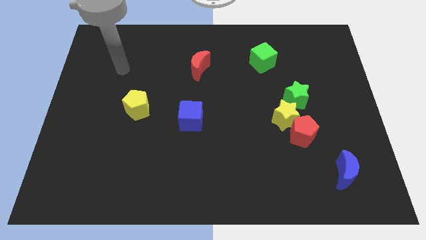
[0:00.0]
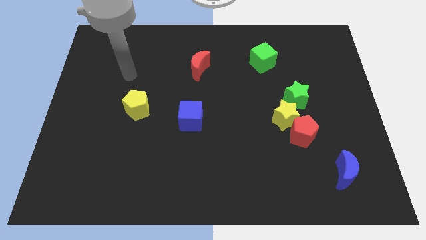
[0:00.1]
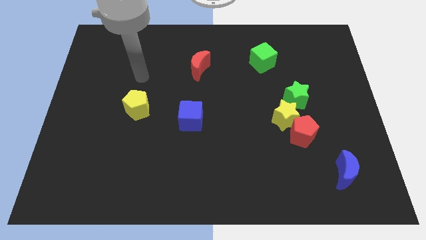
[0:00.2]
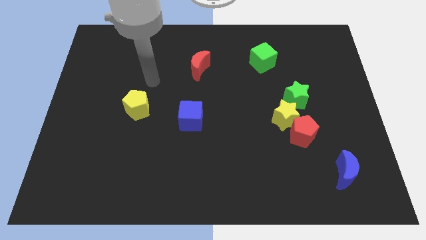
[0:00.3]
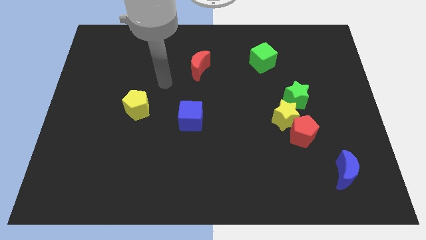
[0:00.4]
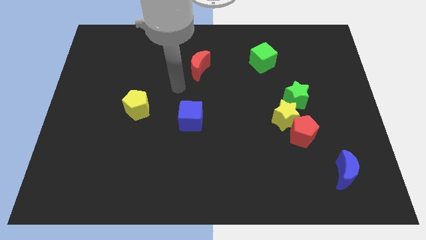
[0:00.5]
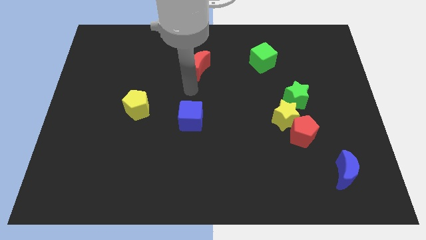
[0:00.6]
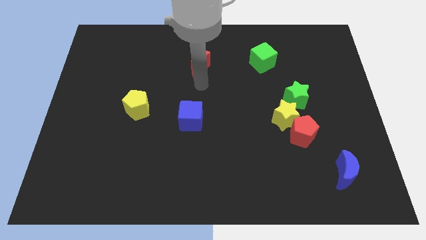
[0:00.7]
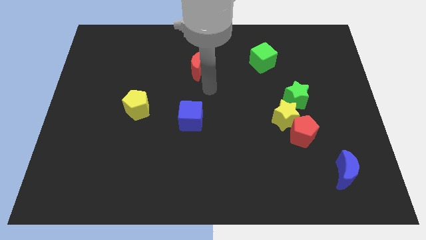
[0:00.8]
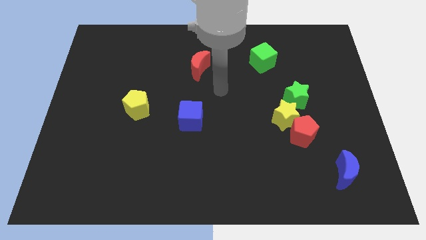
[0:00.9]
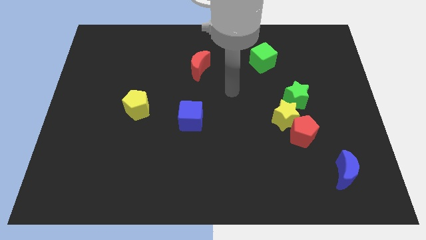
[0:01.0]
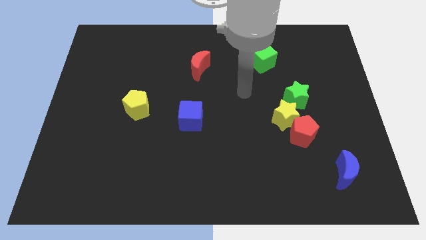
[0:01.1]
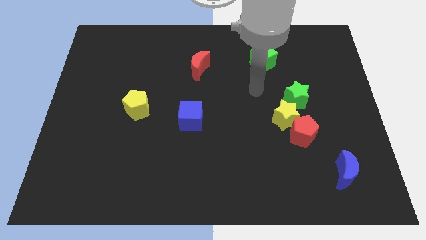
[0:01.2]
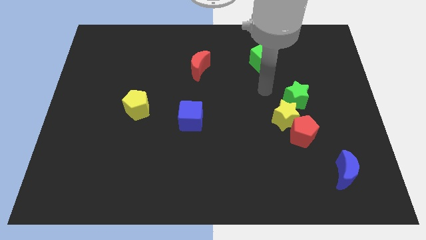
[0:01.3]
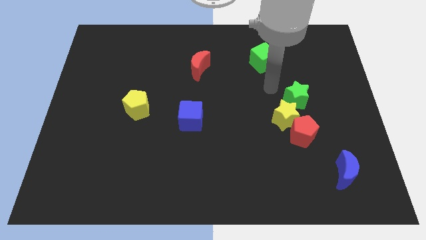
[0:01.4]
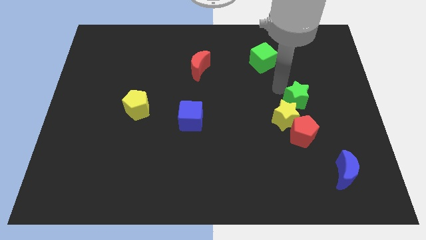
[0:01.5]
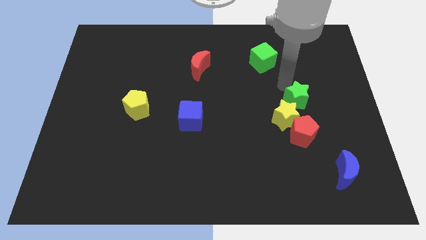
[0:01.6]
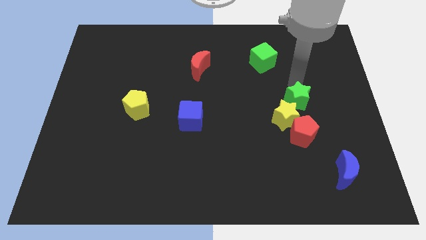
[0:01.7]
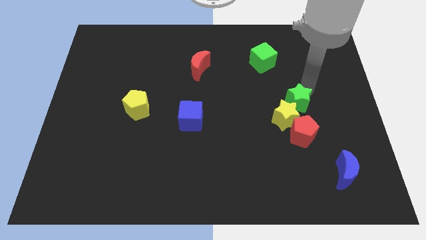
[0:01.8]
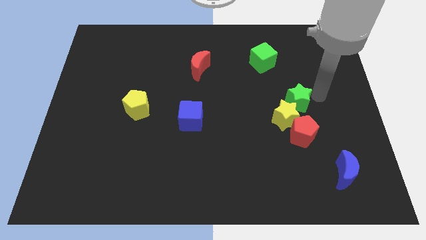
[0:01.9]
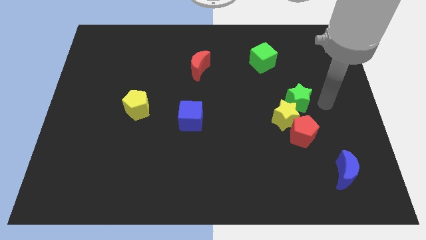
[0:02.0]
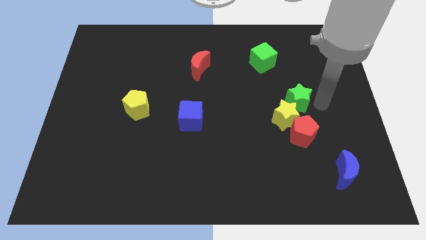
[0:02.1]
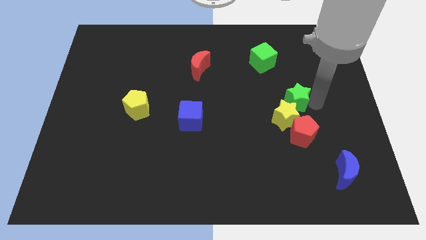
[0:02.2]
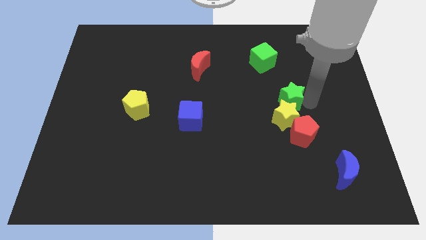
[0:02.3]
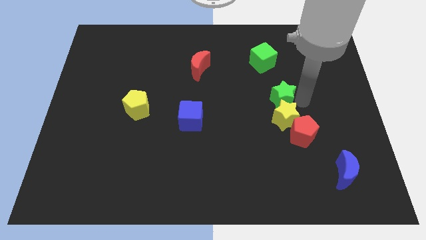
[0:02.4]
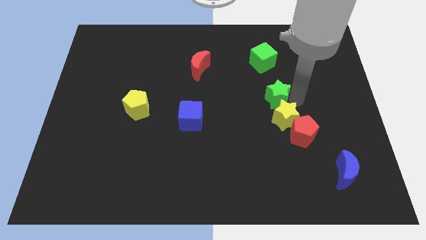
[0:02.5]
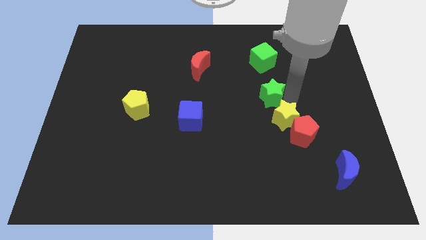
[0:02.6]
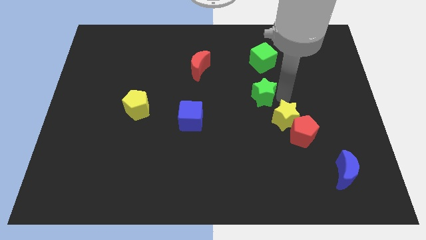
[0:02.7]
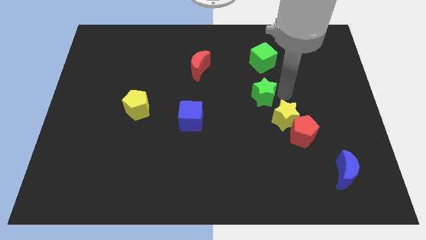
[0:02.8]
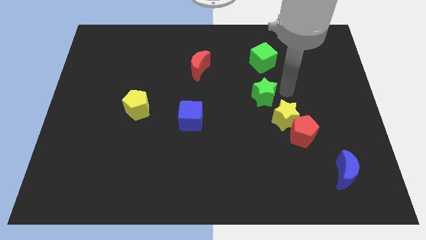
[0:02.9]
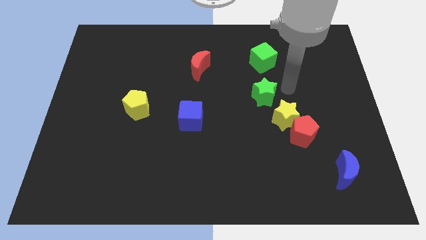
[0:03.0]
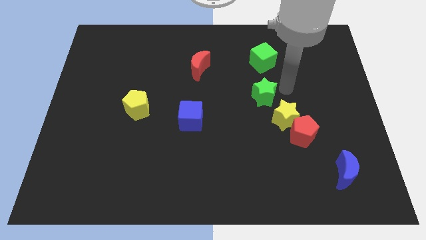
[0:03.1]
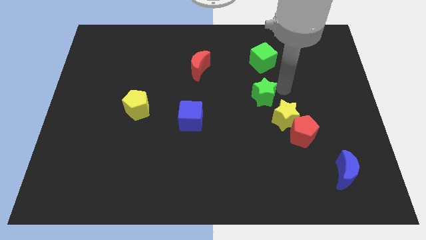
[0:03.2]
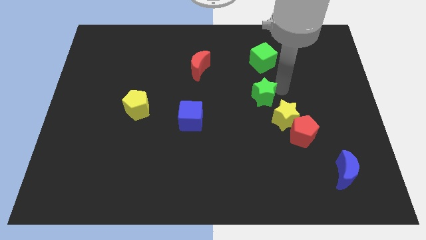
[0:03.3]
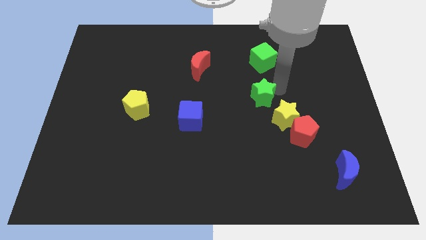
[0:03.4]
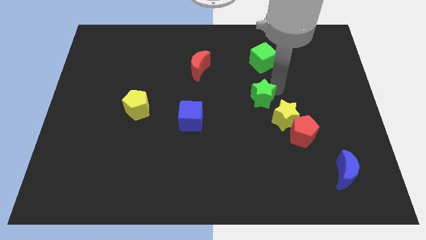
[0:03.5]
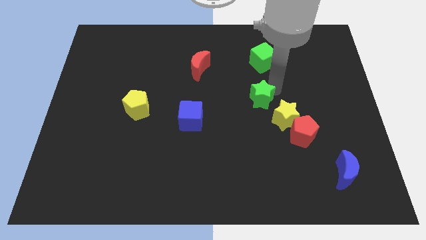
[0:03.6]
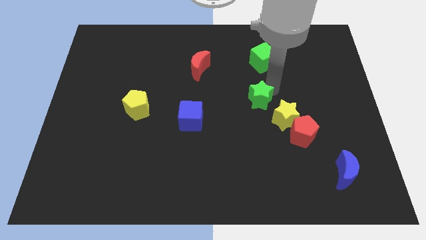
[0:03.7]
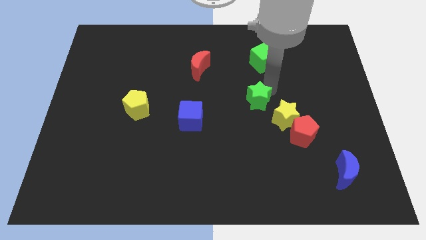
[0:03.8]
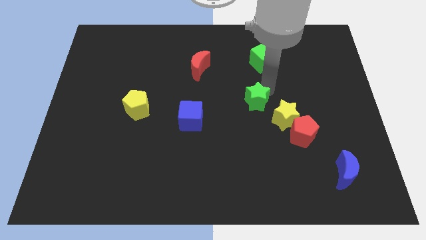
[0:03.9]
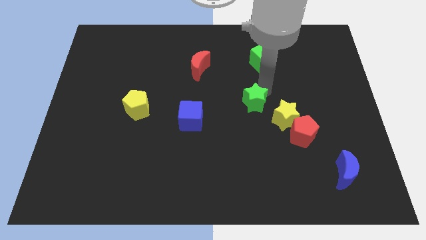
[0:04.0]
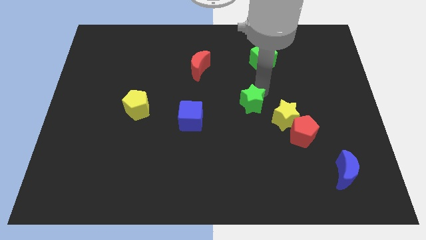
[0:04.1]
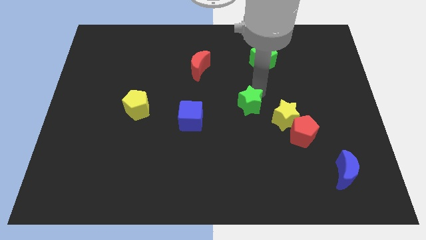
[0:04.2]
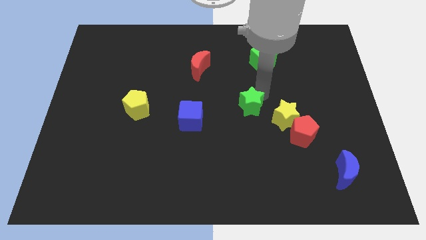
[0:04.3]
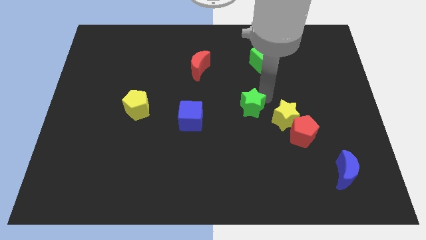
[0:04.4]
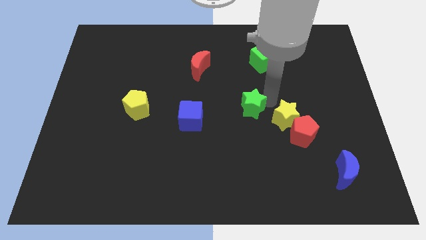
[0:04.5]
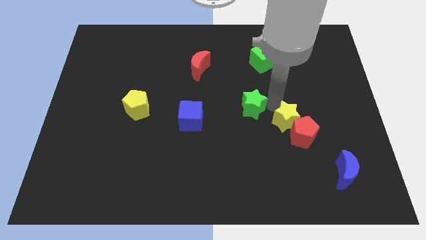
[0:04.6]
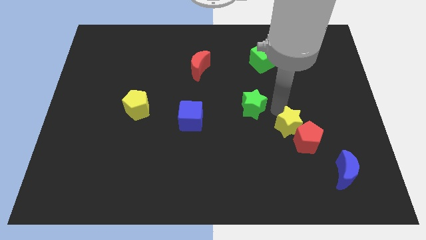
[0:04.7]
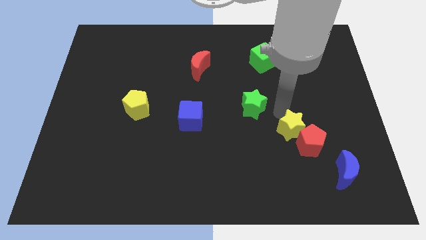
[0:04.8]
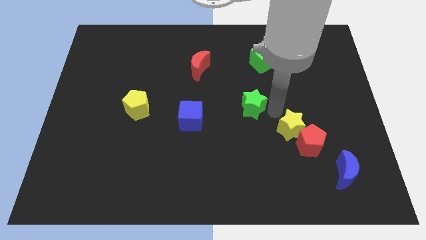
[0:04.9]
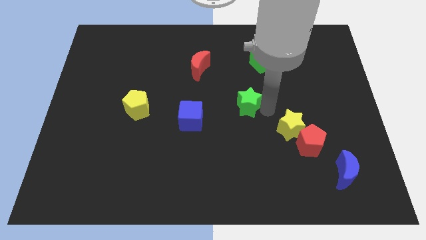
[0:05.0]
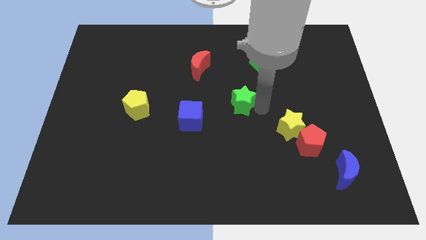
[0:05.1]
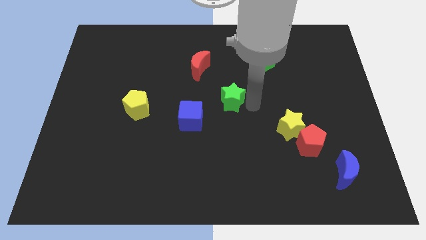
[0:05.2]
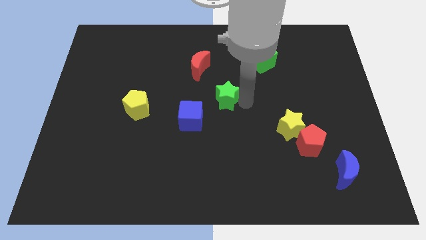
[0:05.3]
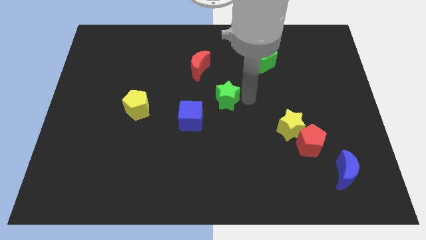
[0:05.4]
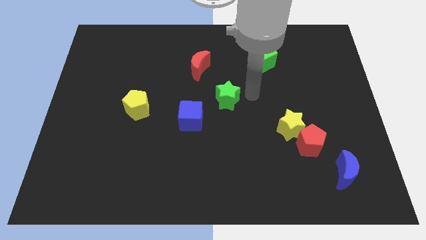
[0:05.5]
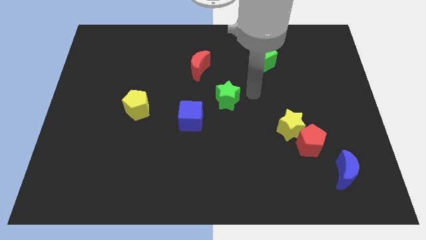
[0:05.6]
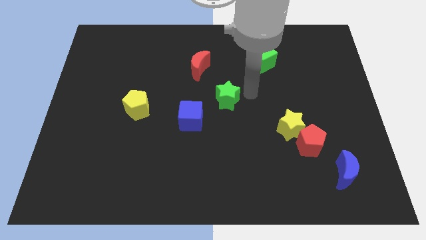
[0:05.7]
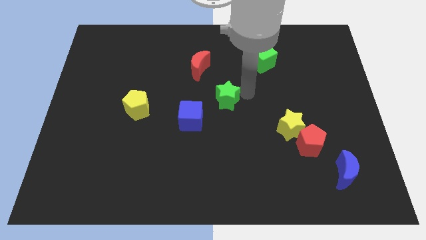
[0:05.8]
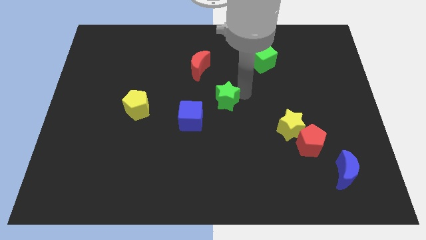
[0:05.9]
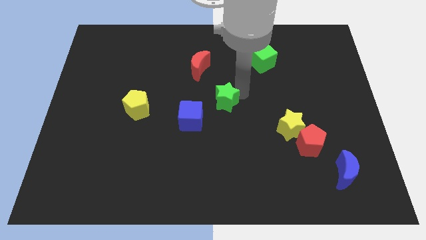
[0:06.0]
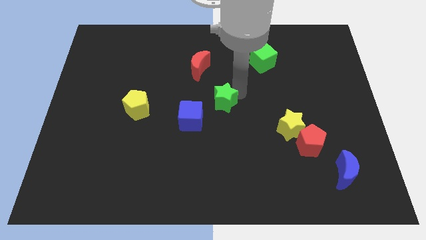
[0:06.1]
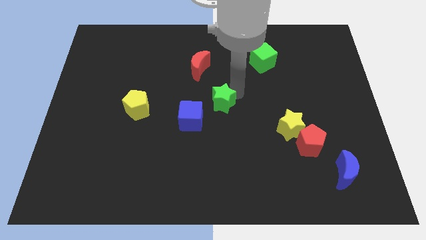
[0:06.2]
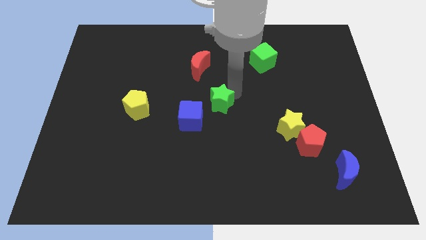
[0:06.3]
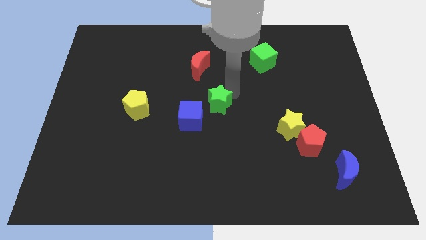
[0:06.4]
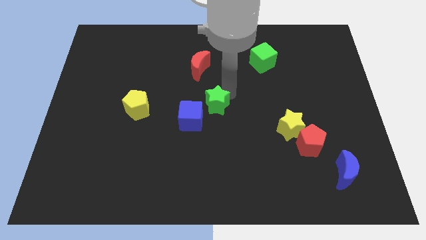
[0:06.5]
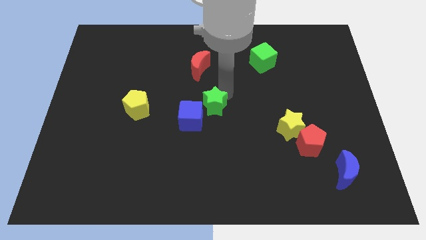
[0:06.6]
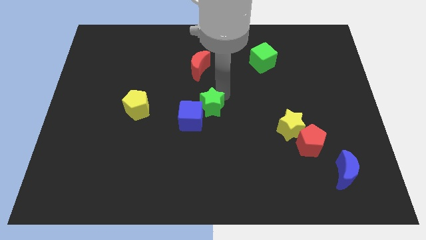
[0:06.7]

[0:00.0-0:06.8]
move the green star to the left

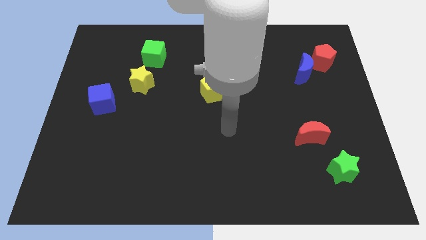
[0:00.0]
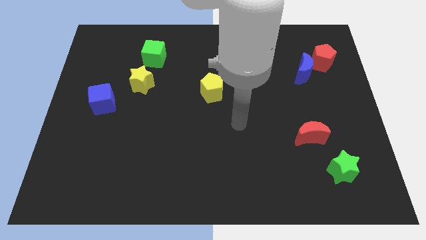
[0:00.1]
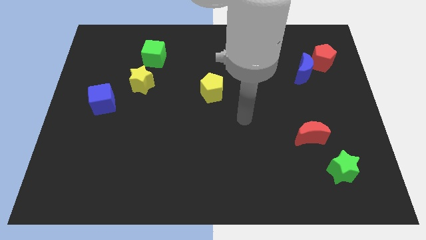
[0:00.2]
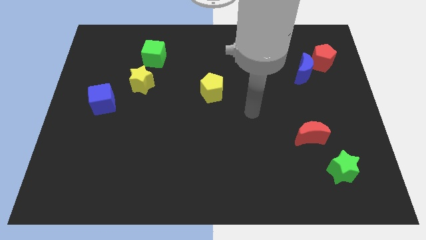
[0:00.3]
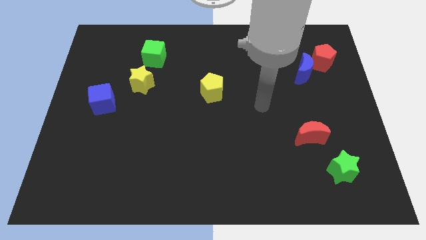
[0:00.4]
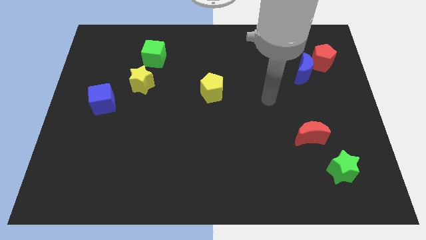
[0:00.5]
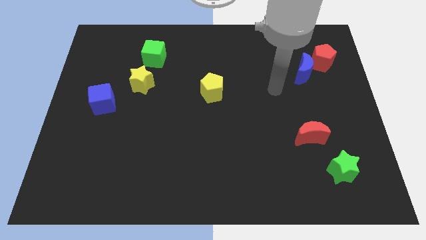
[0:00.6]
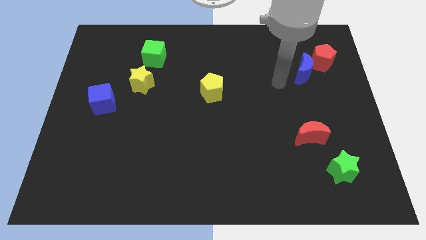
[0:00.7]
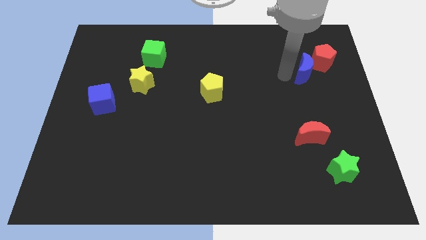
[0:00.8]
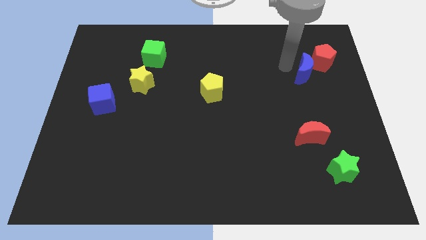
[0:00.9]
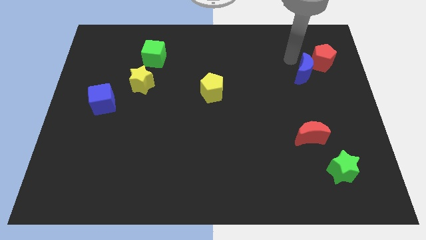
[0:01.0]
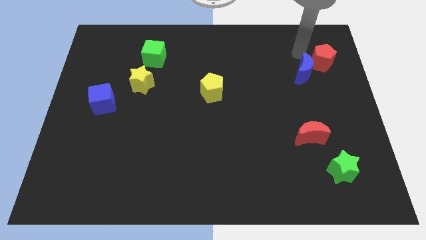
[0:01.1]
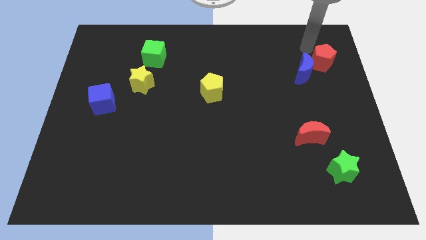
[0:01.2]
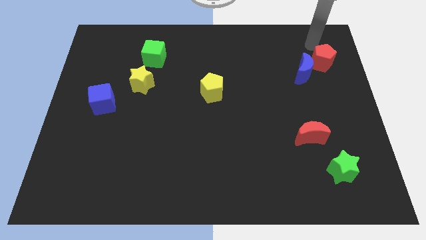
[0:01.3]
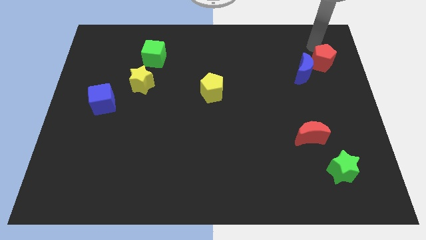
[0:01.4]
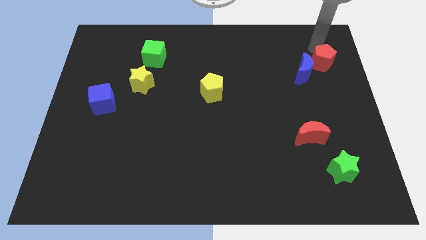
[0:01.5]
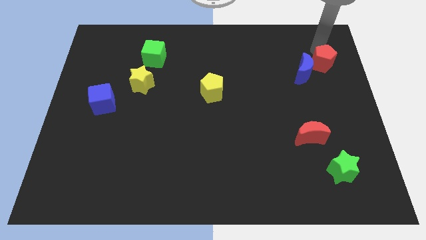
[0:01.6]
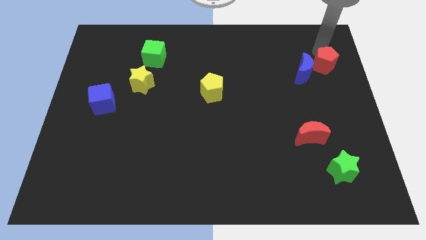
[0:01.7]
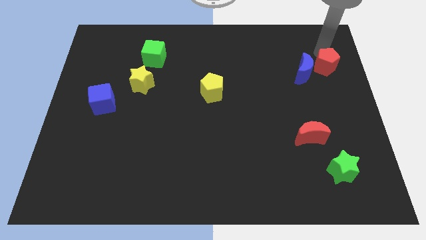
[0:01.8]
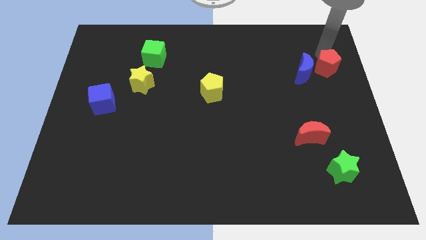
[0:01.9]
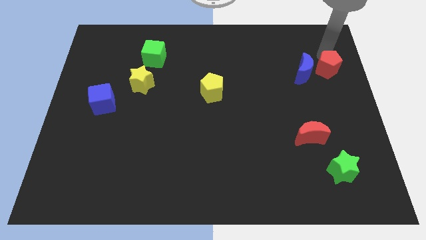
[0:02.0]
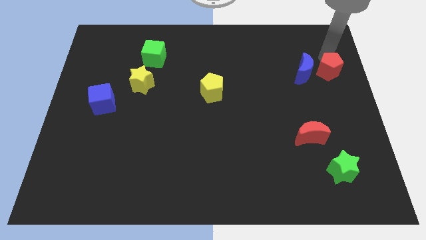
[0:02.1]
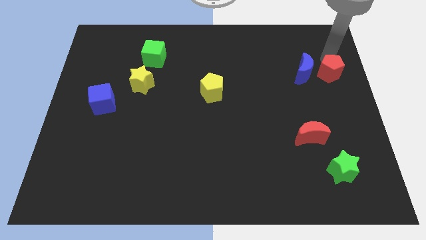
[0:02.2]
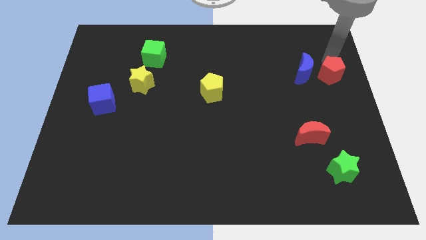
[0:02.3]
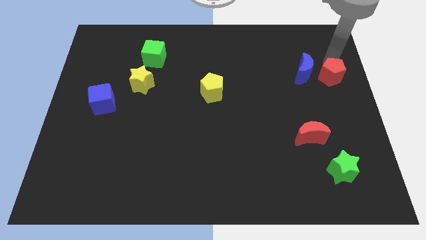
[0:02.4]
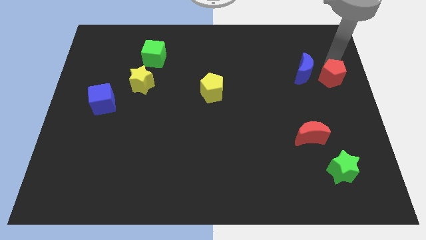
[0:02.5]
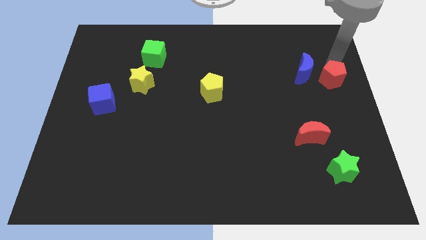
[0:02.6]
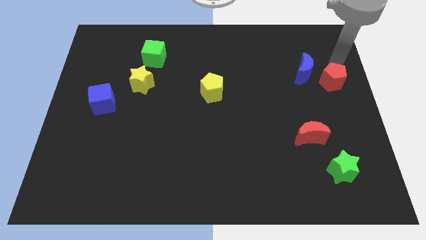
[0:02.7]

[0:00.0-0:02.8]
move the red pentagon somewhat down
